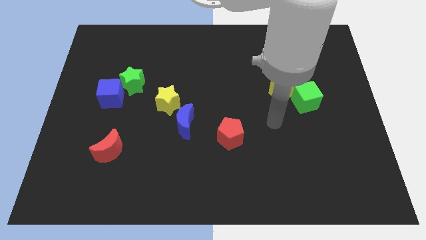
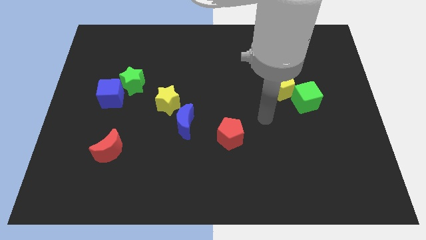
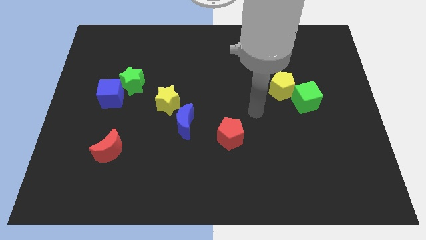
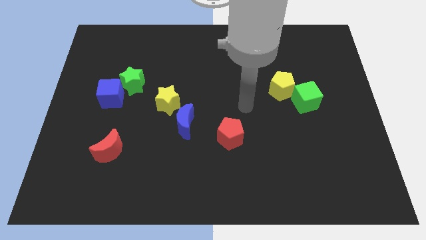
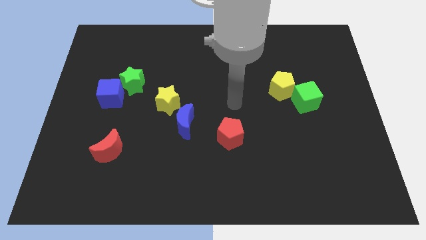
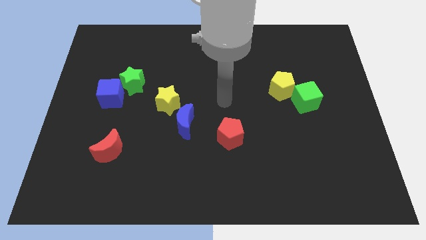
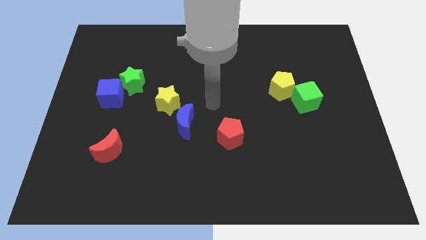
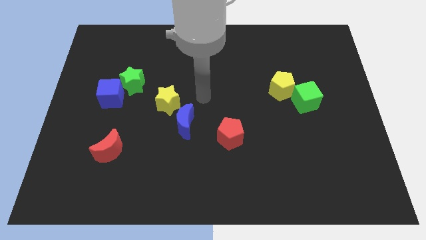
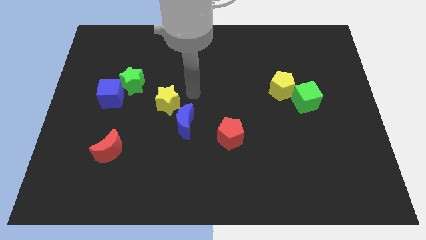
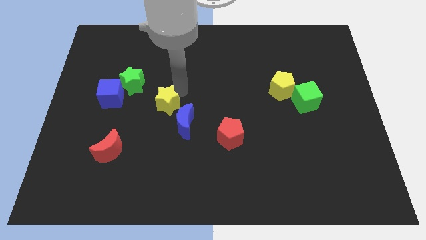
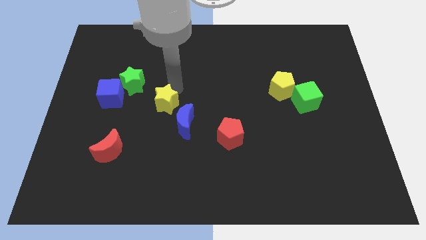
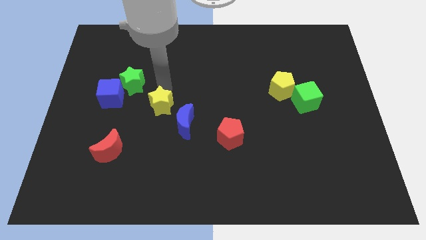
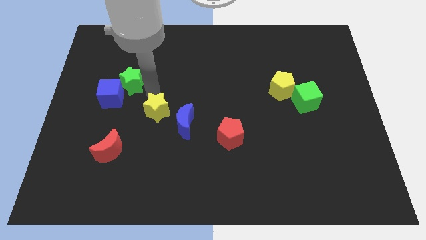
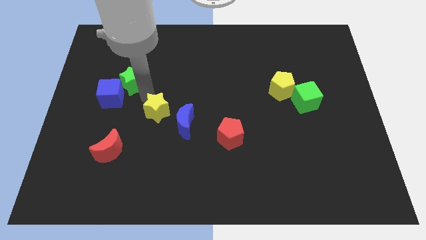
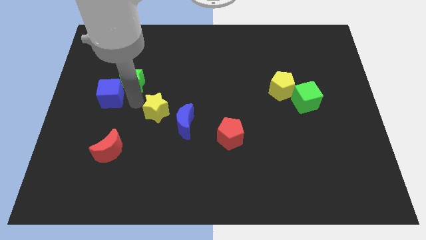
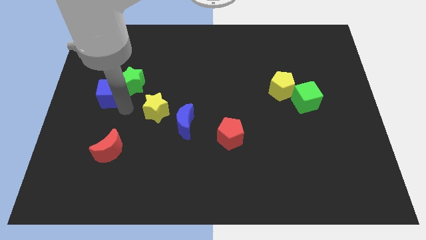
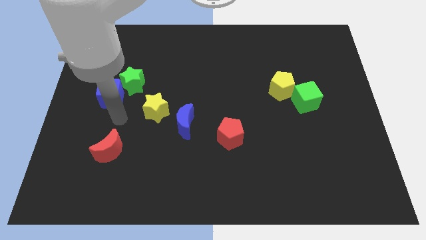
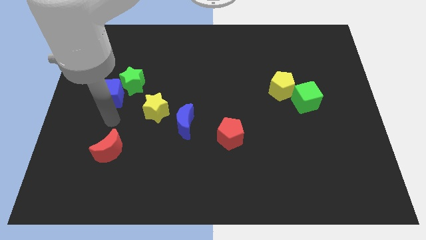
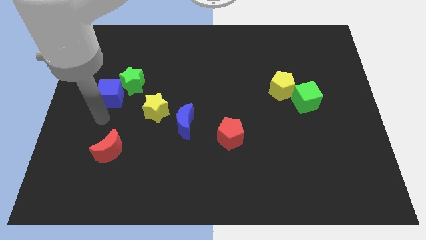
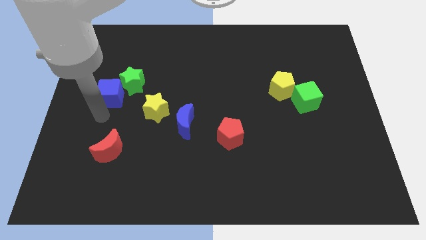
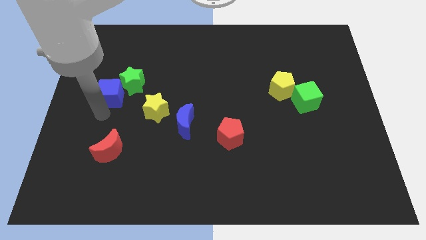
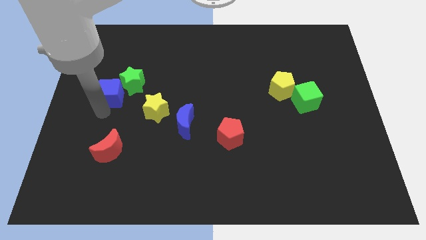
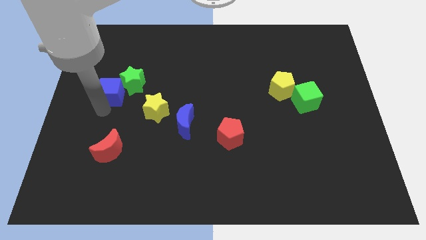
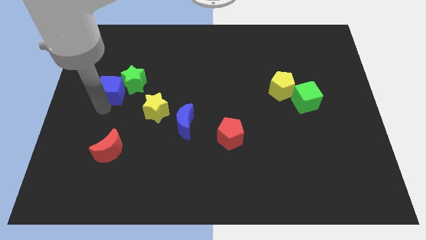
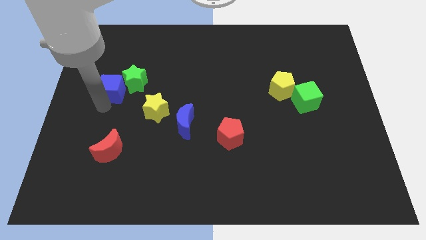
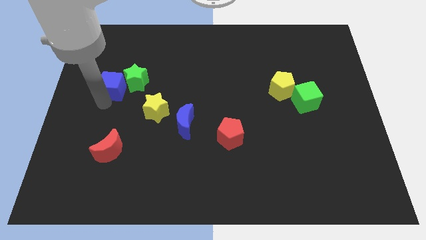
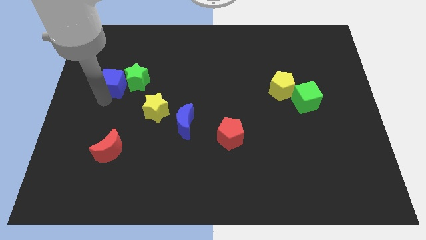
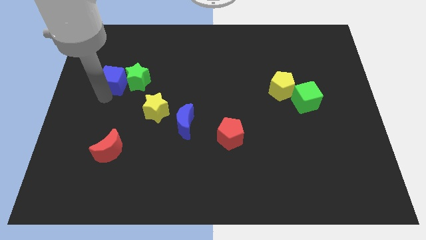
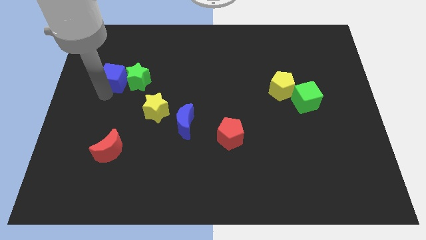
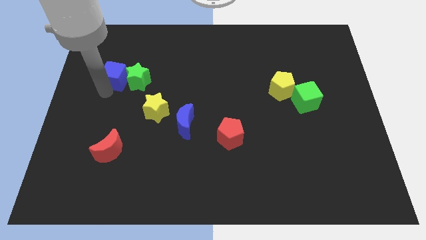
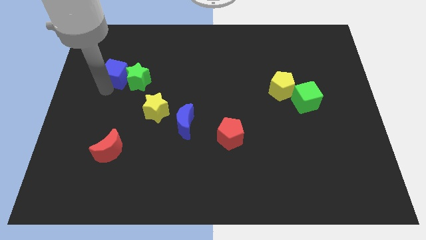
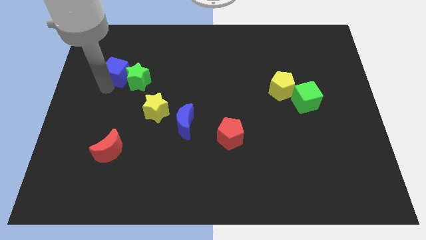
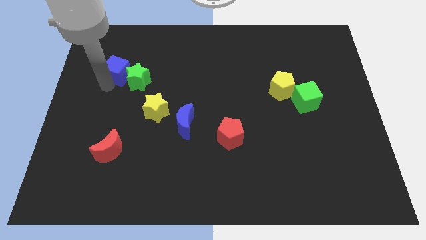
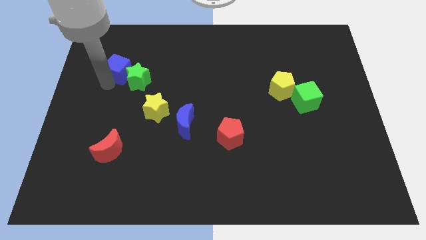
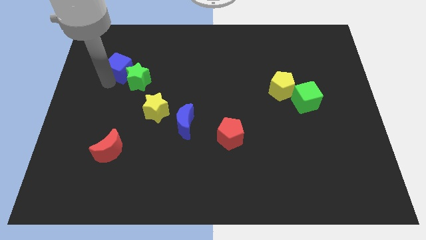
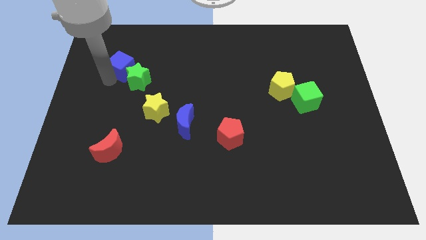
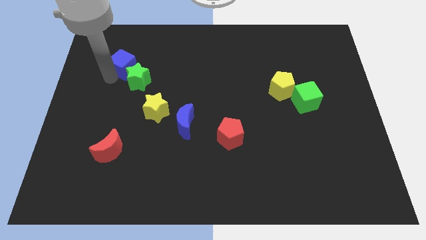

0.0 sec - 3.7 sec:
slightly move the blue cube up and to the right

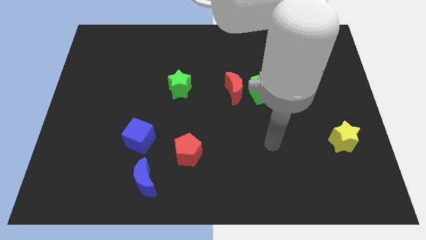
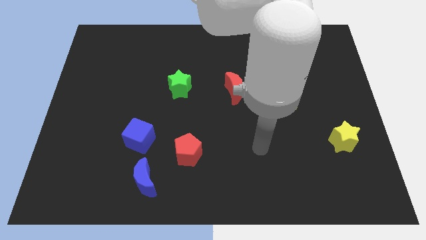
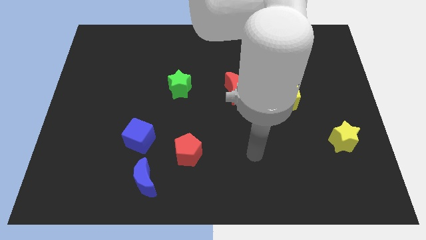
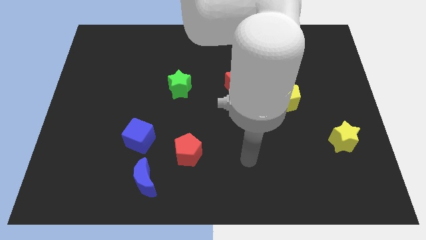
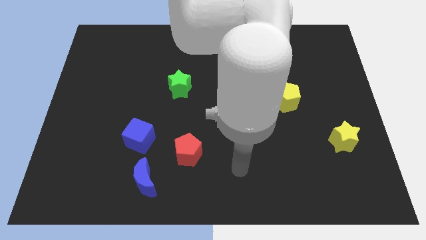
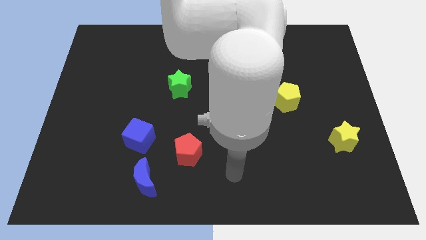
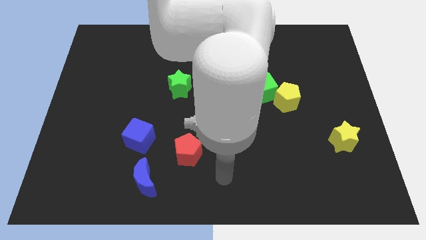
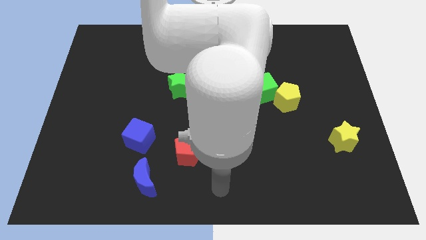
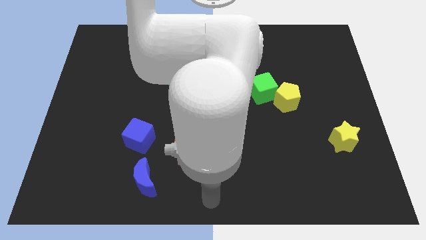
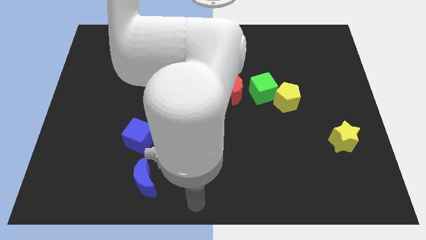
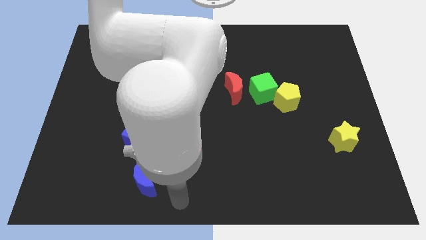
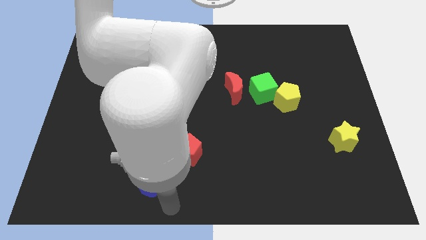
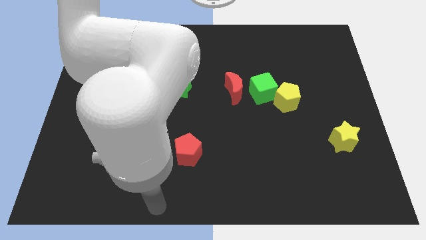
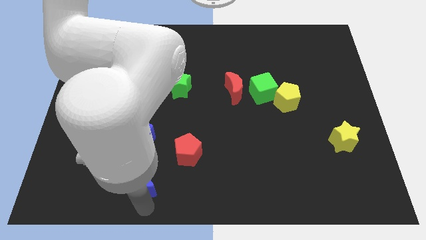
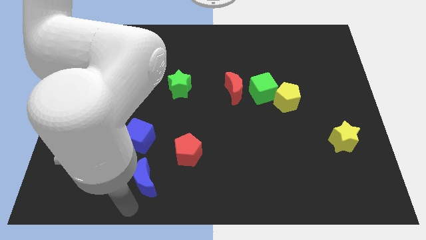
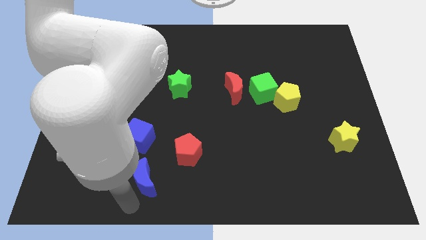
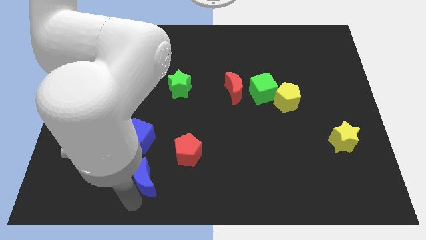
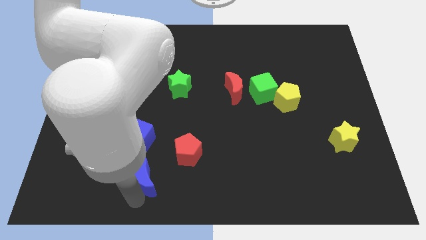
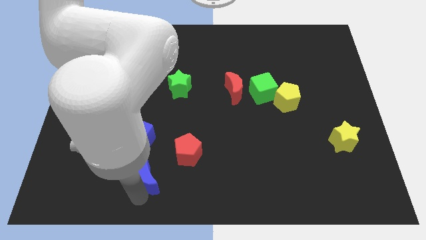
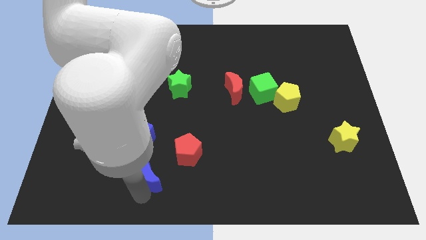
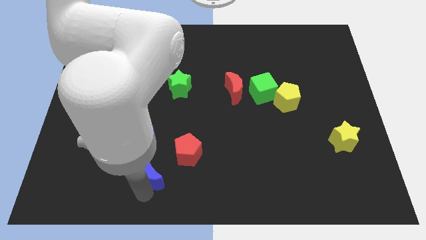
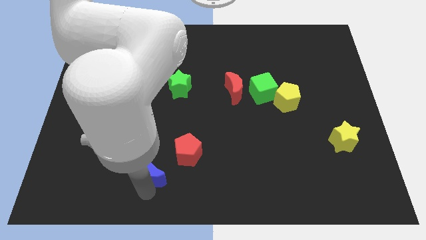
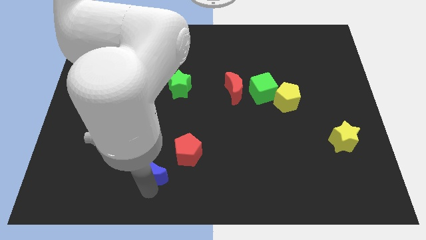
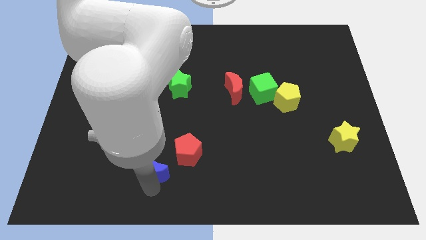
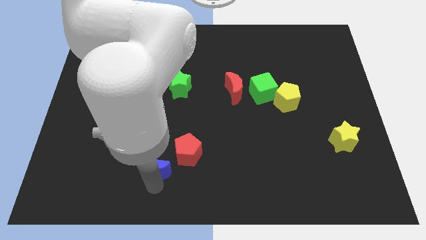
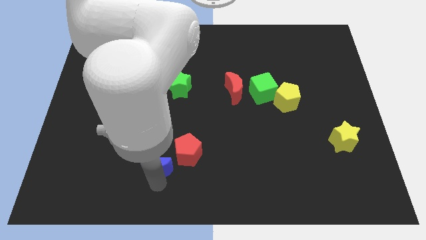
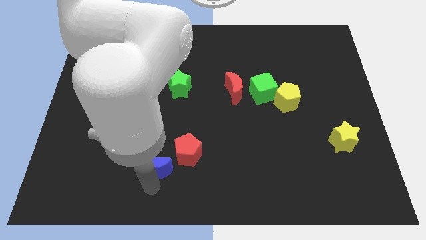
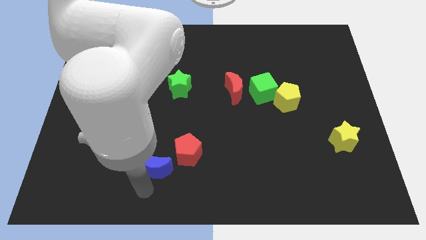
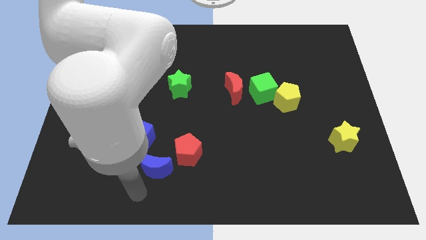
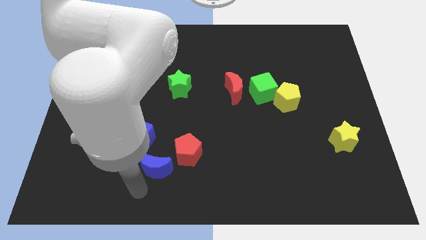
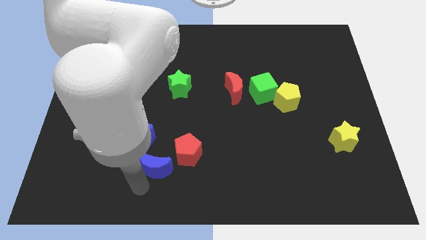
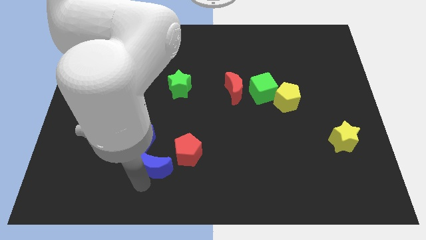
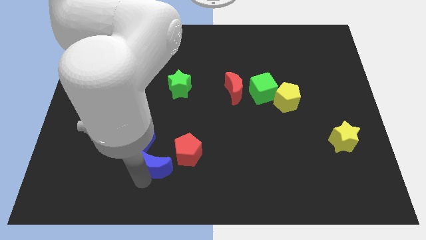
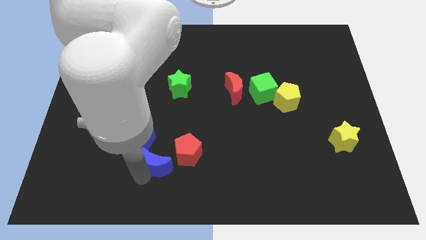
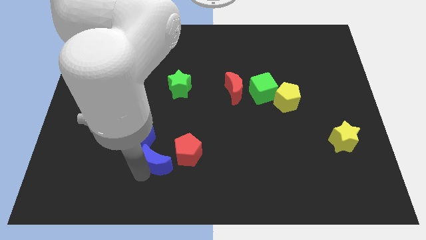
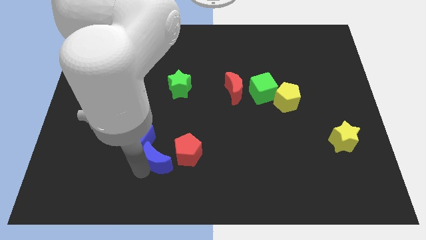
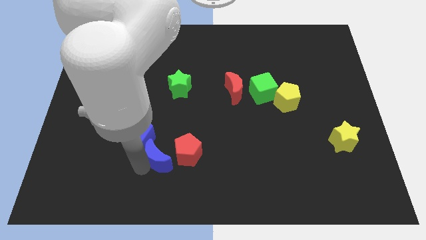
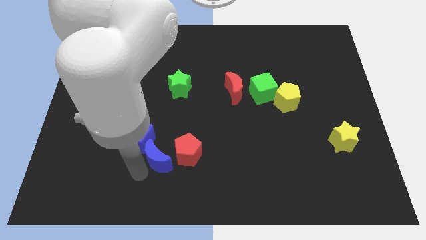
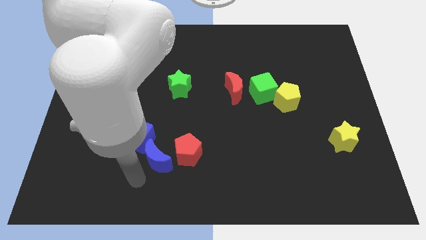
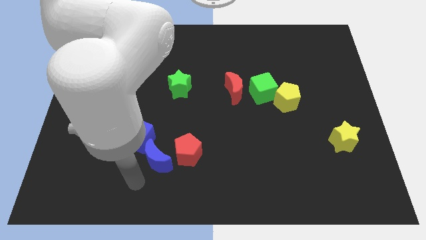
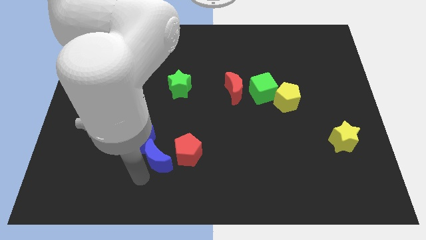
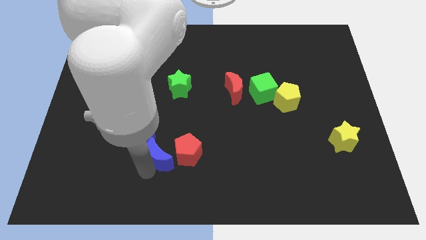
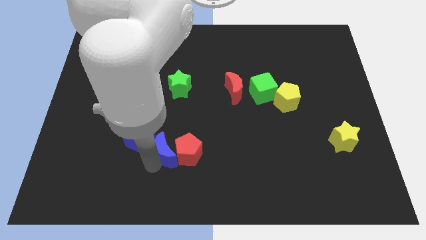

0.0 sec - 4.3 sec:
move the blue moon upwards and then right a little
